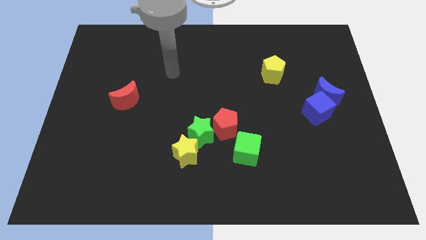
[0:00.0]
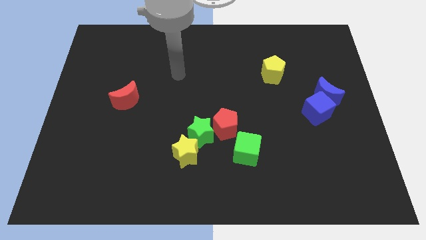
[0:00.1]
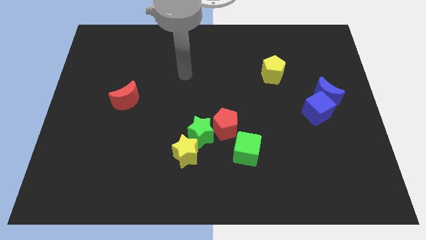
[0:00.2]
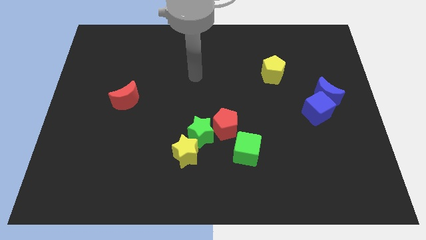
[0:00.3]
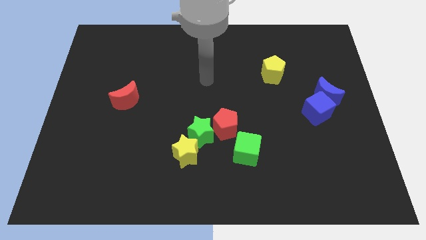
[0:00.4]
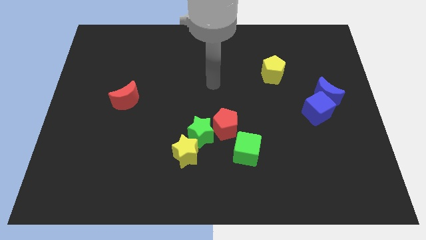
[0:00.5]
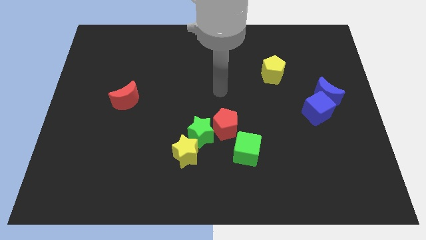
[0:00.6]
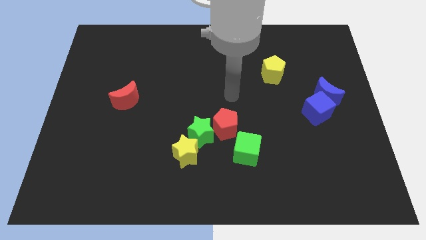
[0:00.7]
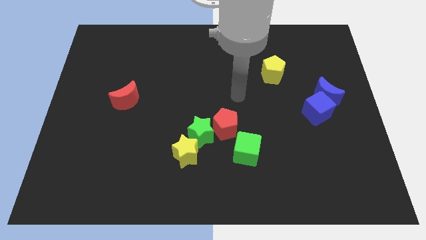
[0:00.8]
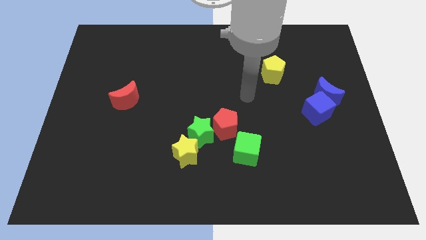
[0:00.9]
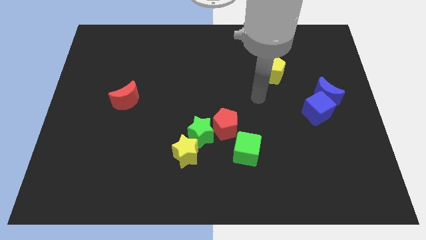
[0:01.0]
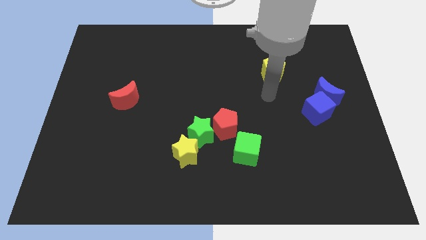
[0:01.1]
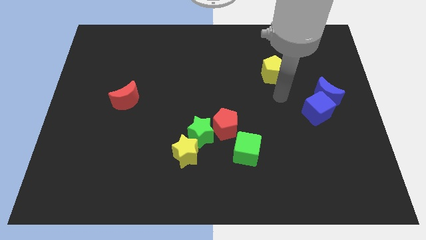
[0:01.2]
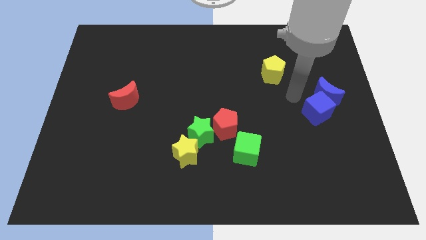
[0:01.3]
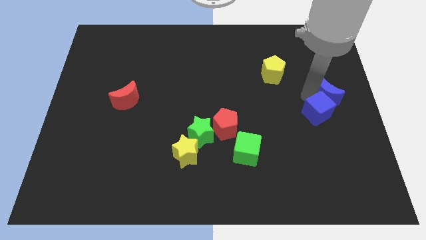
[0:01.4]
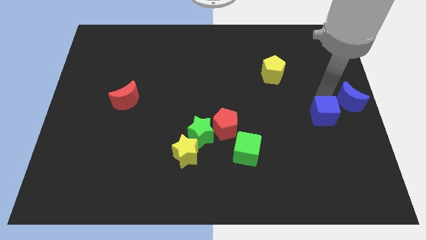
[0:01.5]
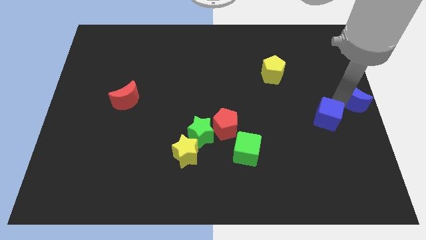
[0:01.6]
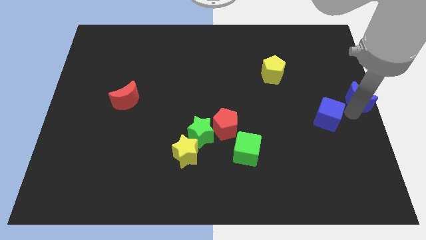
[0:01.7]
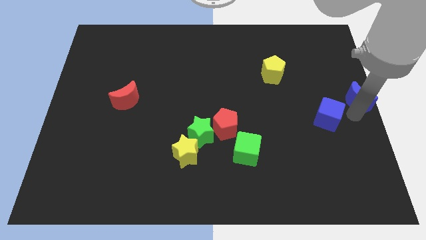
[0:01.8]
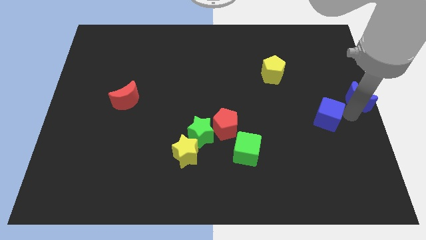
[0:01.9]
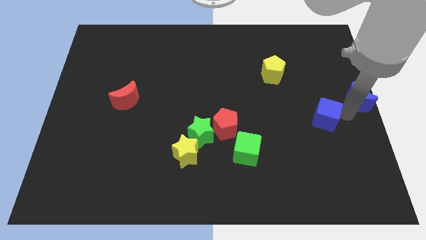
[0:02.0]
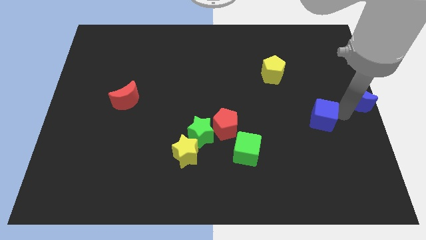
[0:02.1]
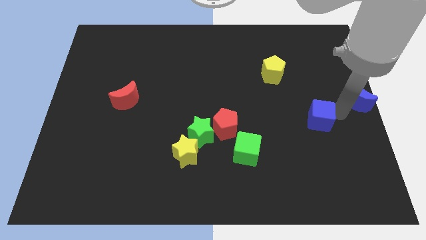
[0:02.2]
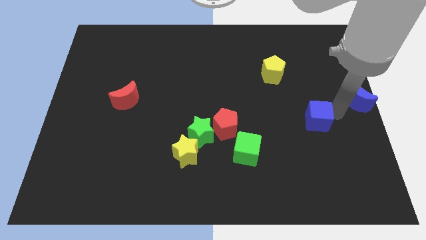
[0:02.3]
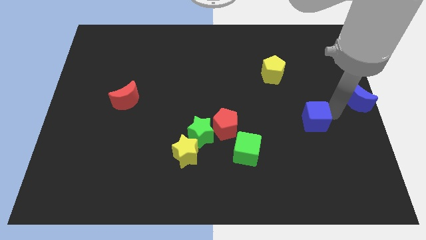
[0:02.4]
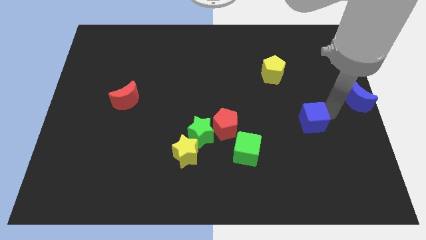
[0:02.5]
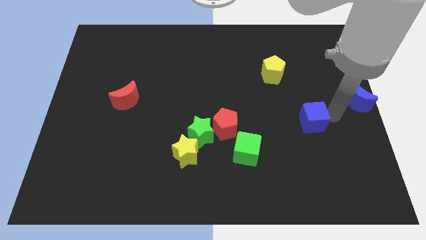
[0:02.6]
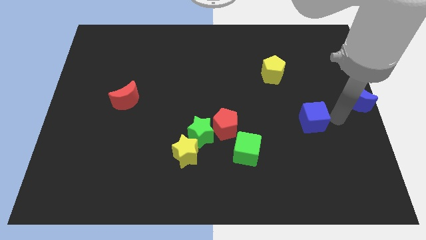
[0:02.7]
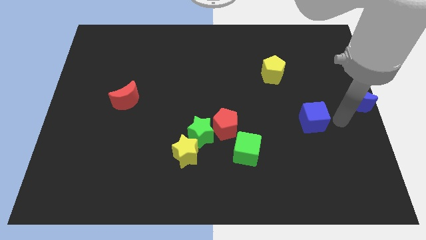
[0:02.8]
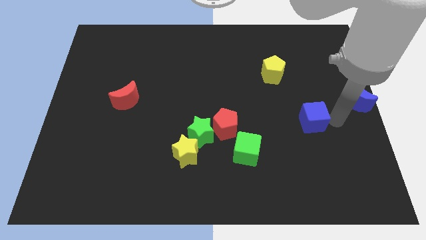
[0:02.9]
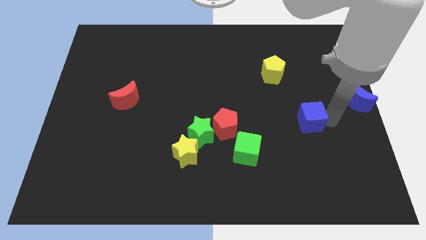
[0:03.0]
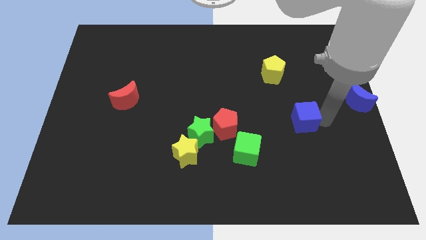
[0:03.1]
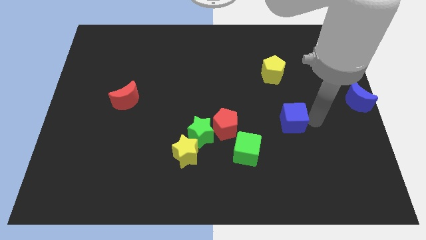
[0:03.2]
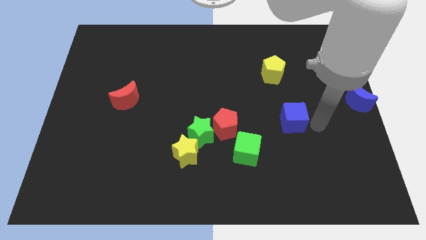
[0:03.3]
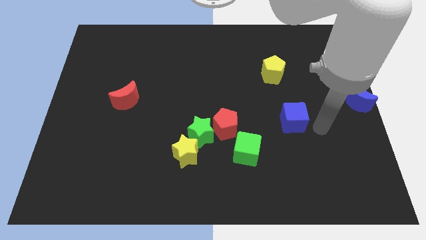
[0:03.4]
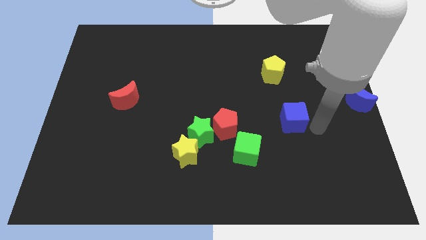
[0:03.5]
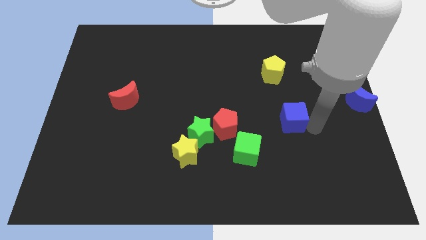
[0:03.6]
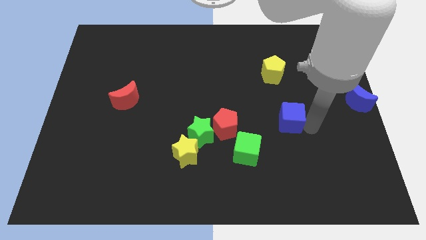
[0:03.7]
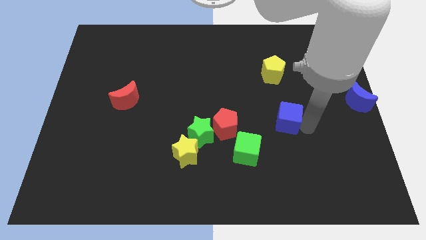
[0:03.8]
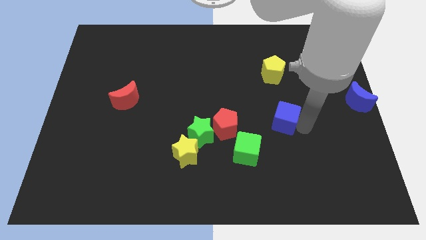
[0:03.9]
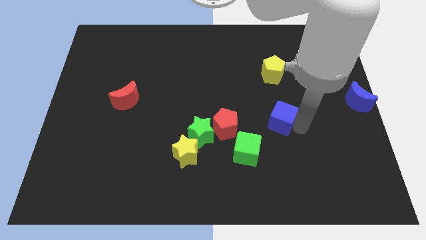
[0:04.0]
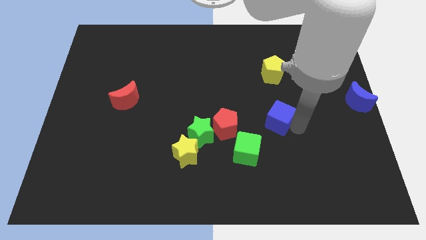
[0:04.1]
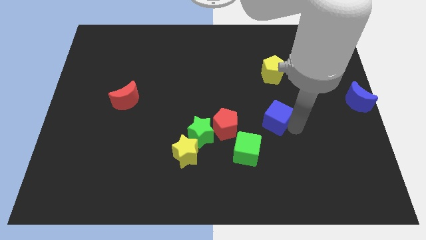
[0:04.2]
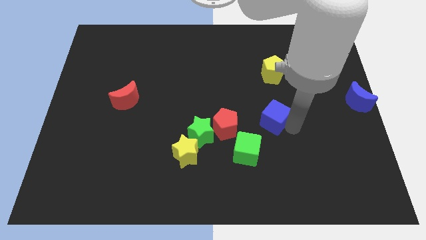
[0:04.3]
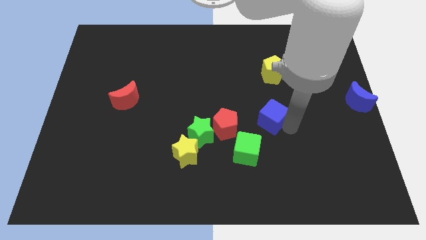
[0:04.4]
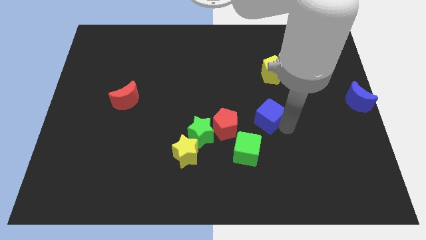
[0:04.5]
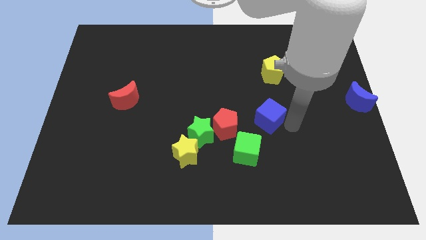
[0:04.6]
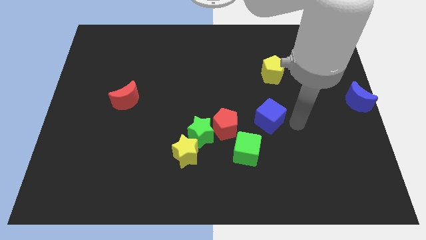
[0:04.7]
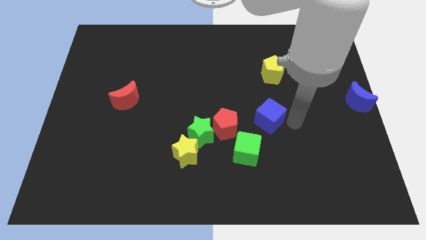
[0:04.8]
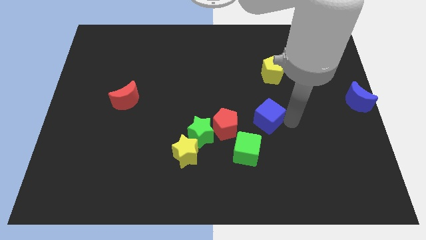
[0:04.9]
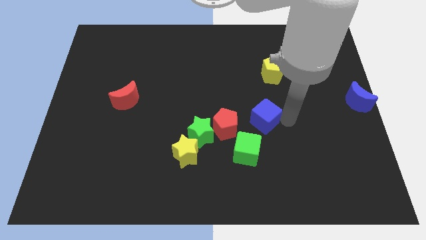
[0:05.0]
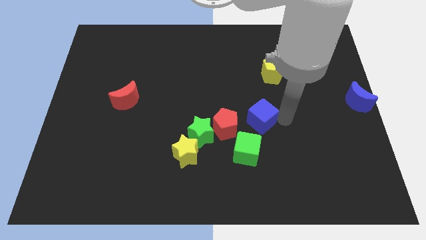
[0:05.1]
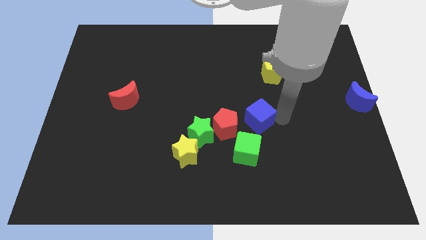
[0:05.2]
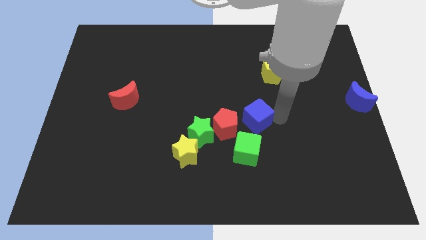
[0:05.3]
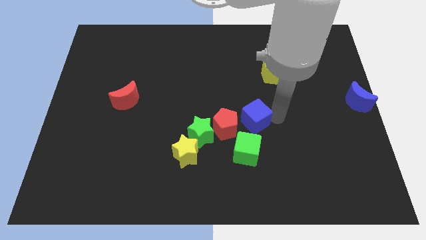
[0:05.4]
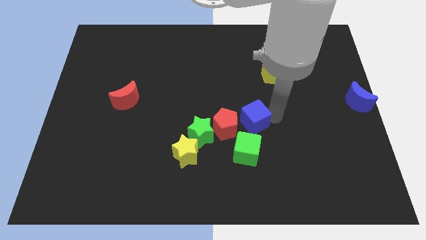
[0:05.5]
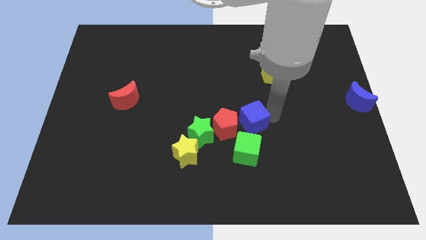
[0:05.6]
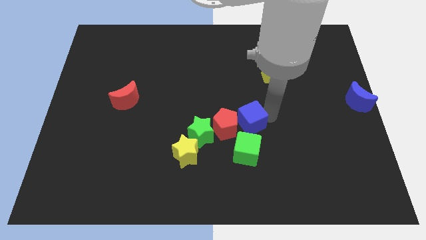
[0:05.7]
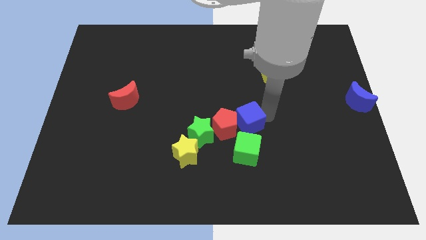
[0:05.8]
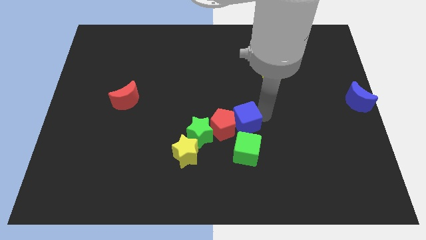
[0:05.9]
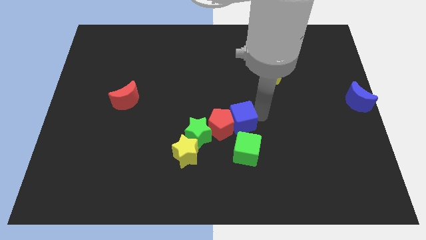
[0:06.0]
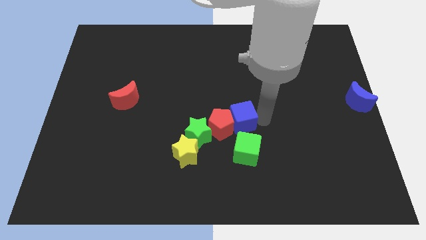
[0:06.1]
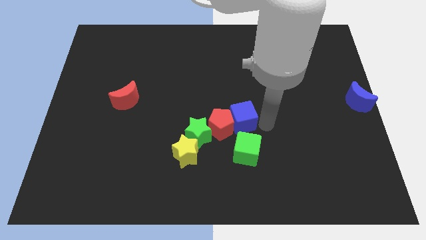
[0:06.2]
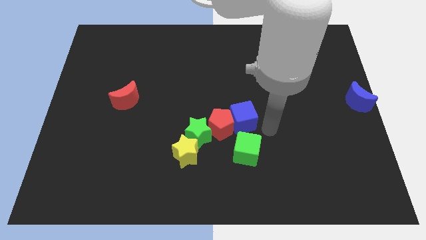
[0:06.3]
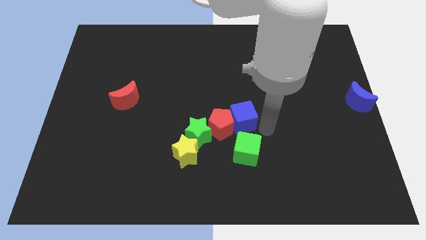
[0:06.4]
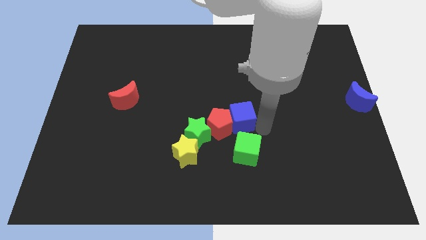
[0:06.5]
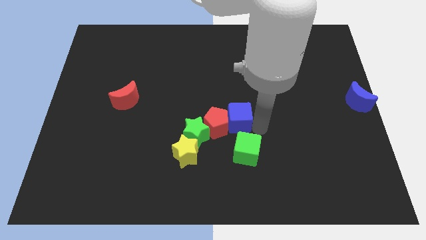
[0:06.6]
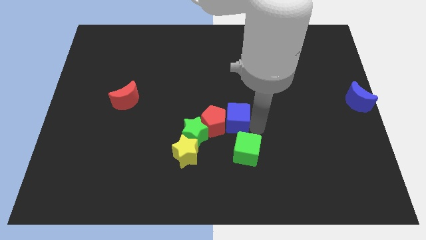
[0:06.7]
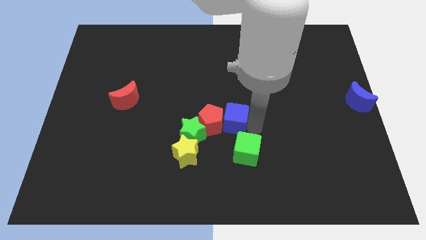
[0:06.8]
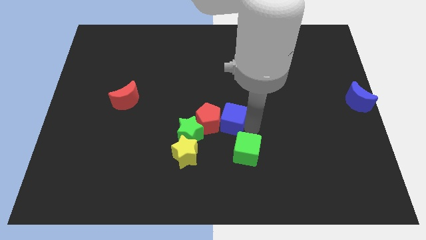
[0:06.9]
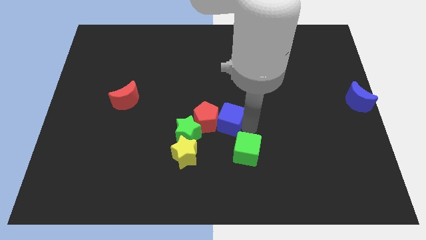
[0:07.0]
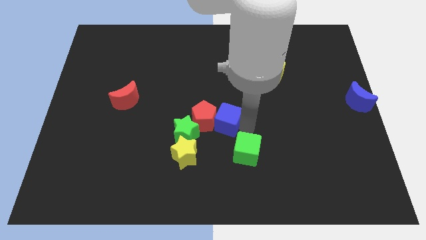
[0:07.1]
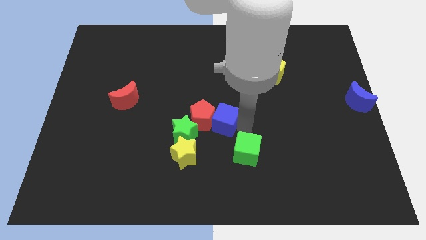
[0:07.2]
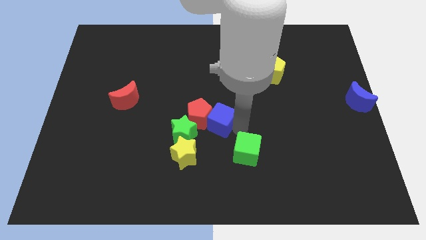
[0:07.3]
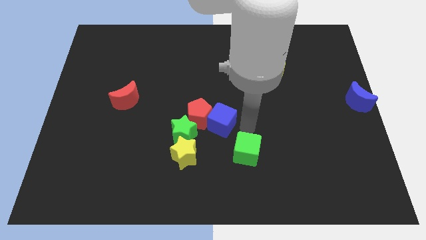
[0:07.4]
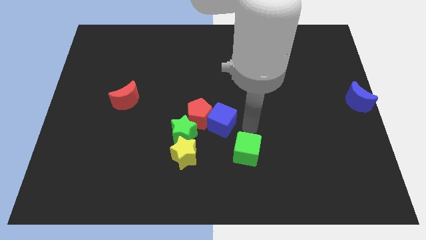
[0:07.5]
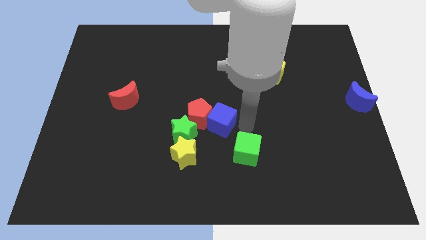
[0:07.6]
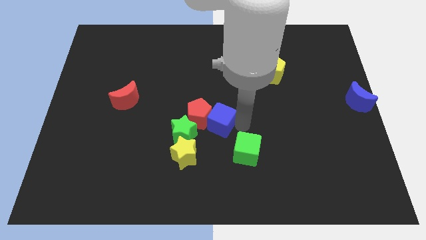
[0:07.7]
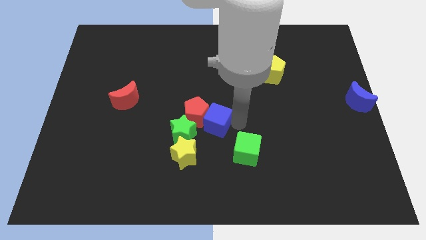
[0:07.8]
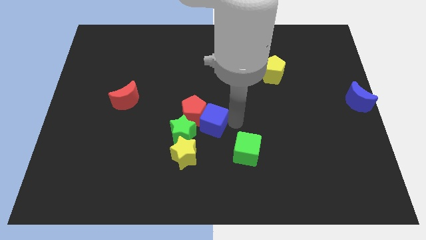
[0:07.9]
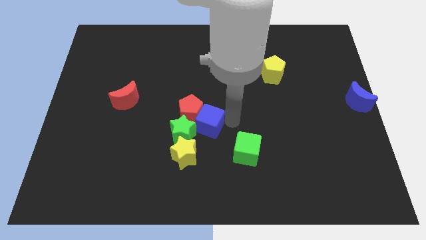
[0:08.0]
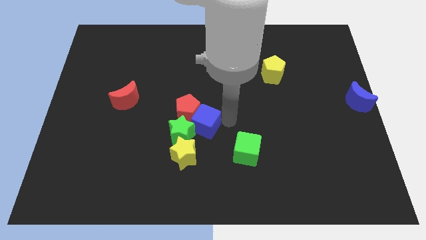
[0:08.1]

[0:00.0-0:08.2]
slide the blue cube to the top side of the yellow star
